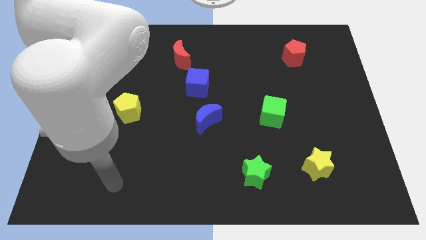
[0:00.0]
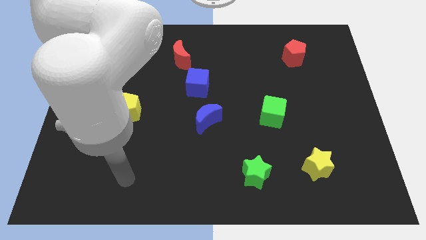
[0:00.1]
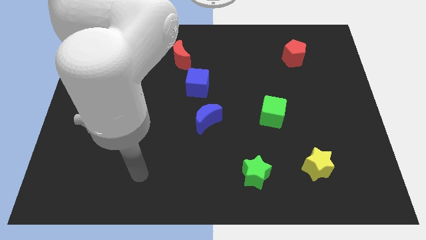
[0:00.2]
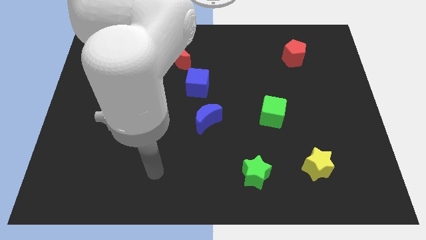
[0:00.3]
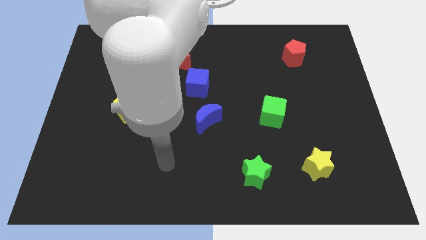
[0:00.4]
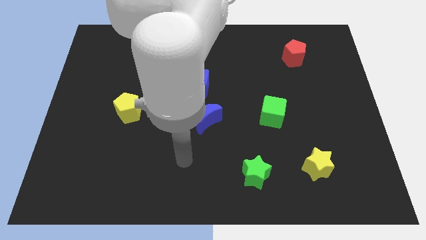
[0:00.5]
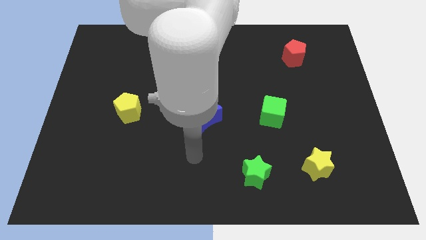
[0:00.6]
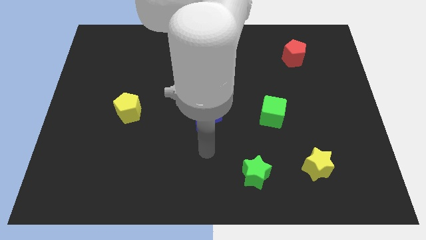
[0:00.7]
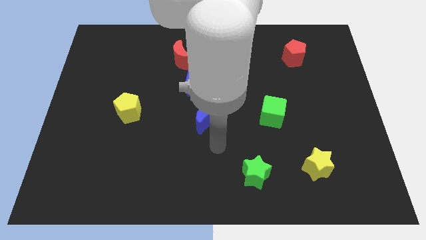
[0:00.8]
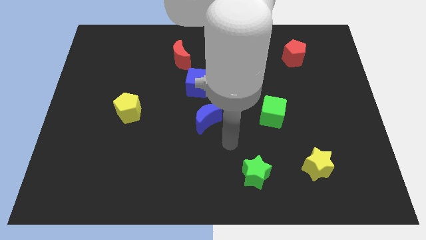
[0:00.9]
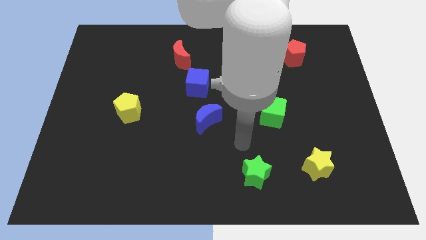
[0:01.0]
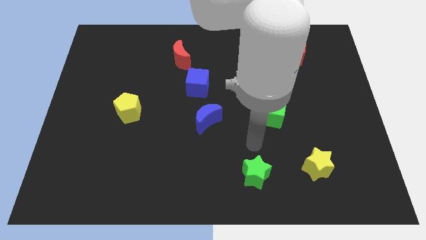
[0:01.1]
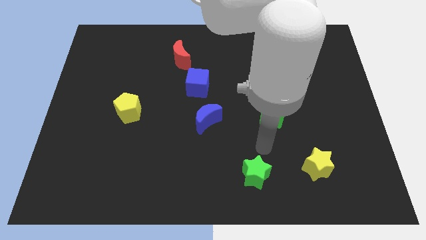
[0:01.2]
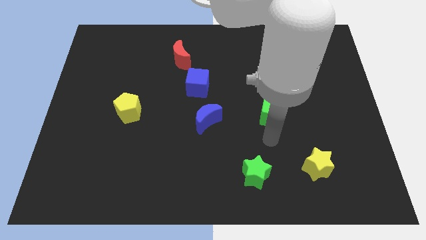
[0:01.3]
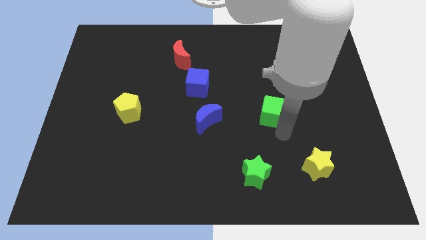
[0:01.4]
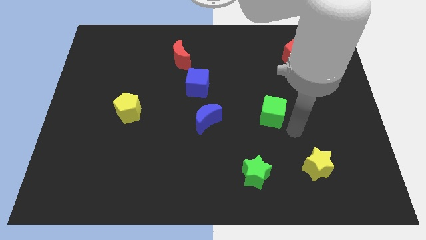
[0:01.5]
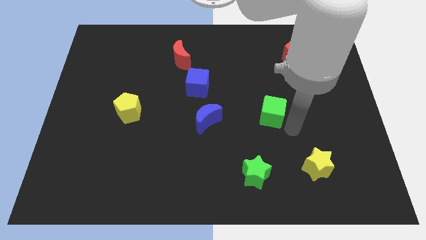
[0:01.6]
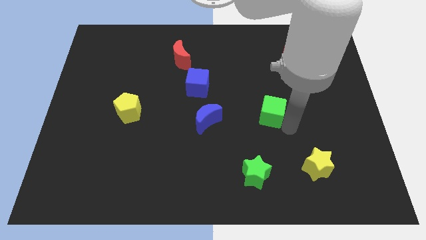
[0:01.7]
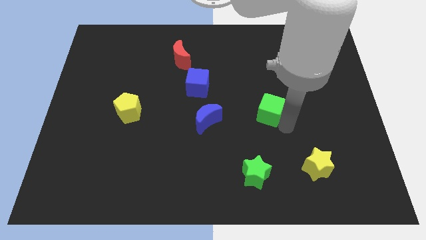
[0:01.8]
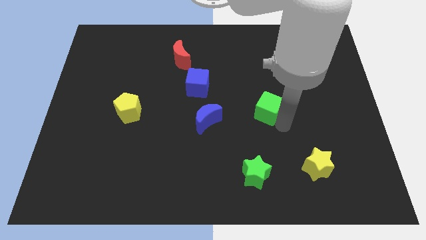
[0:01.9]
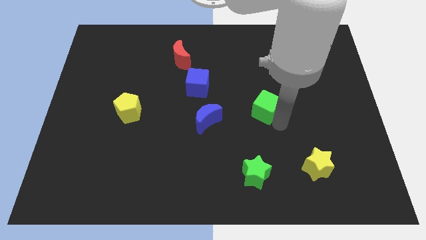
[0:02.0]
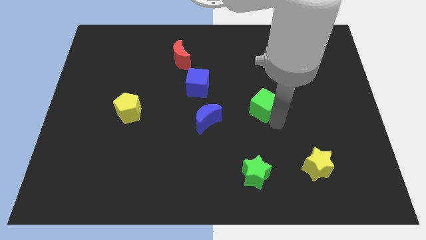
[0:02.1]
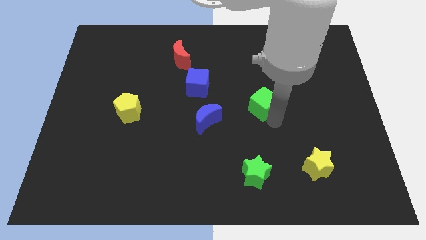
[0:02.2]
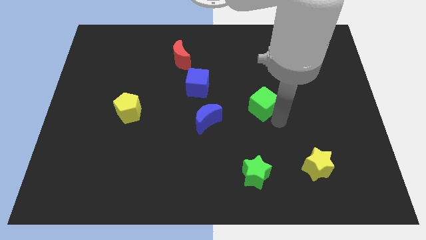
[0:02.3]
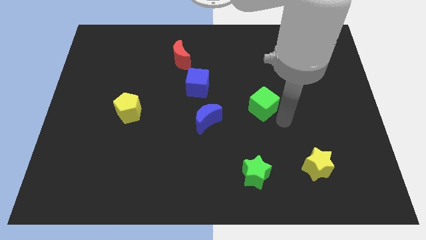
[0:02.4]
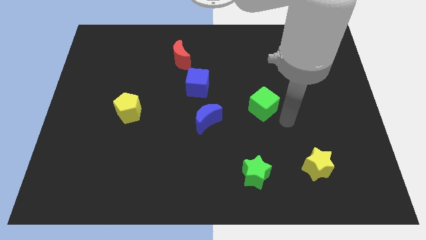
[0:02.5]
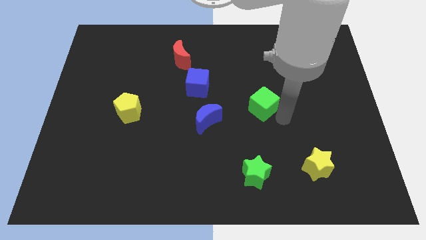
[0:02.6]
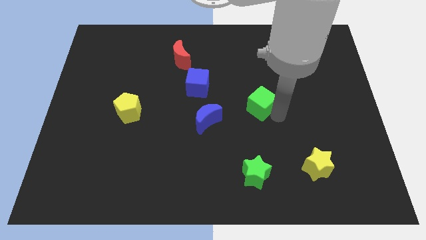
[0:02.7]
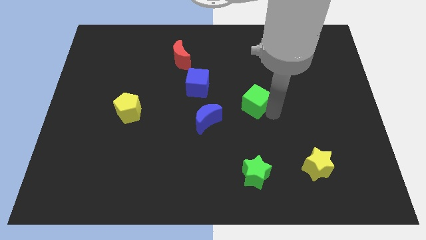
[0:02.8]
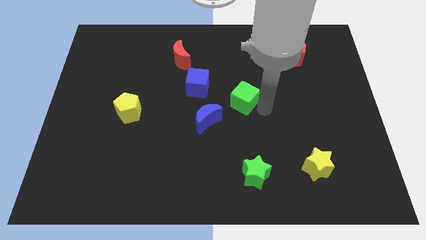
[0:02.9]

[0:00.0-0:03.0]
slide the green cube up and to the left a little

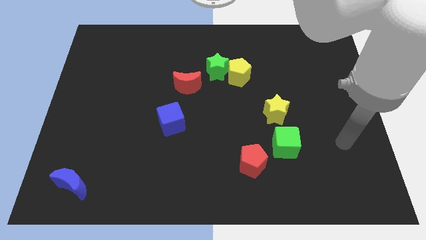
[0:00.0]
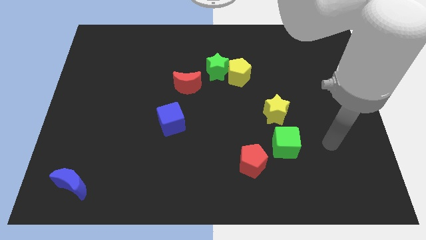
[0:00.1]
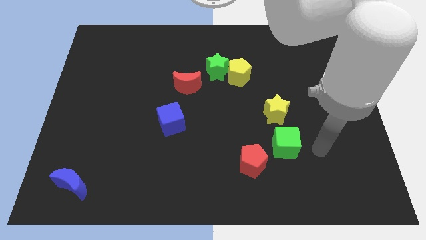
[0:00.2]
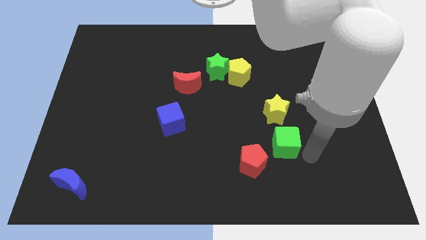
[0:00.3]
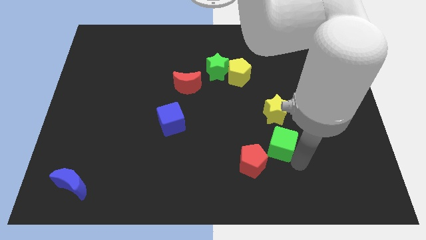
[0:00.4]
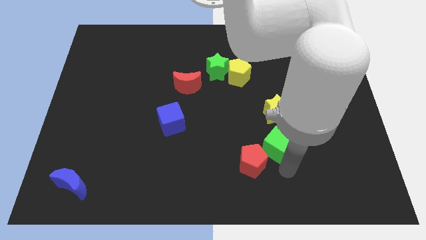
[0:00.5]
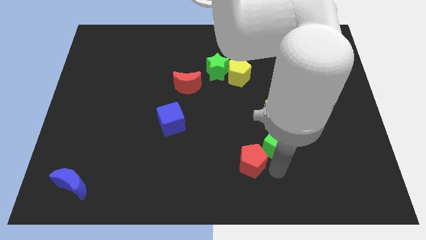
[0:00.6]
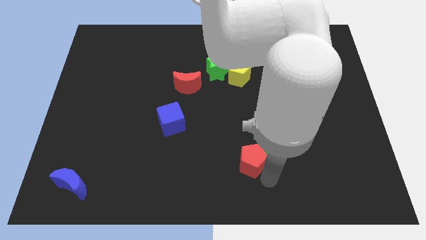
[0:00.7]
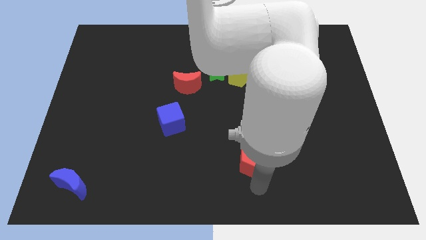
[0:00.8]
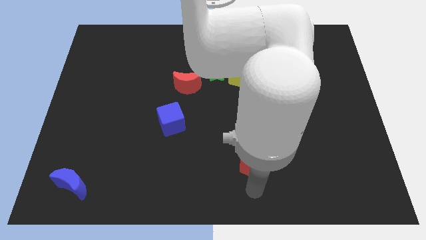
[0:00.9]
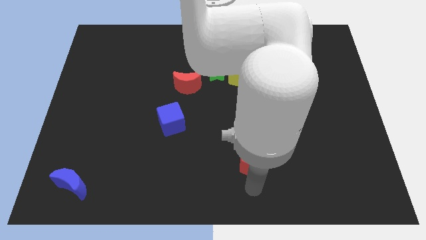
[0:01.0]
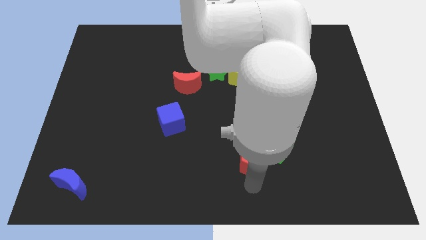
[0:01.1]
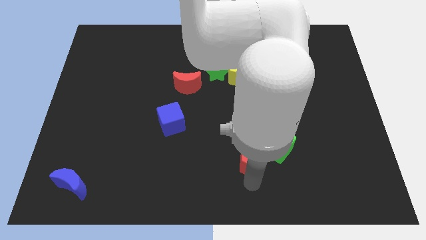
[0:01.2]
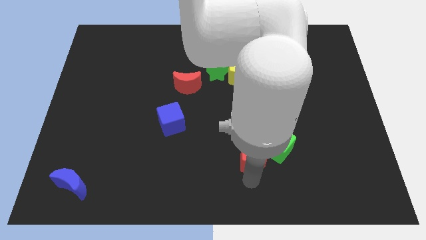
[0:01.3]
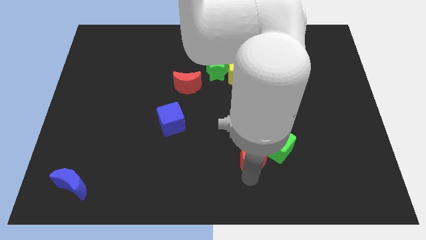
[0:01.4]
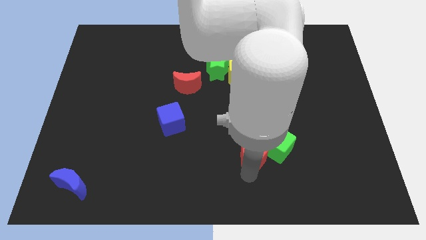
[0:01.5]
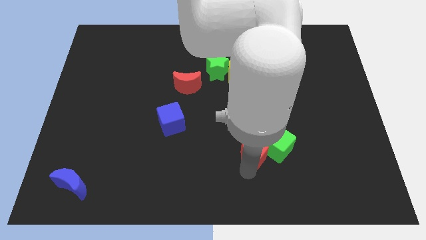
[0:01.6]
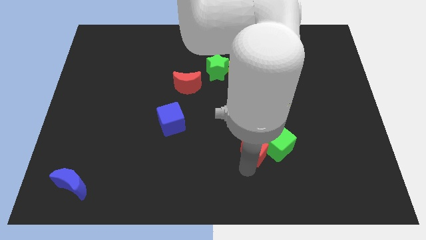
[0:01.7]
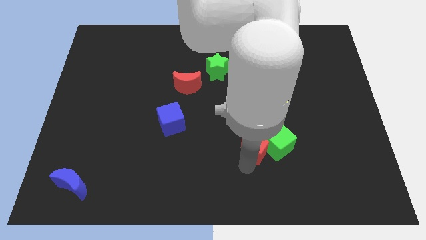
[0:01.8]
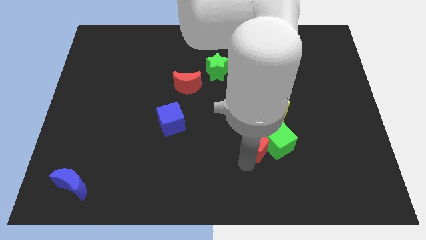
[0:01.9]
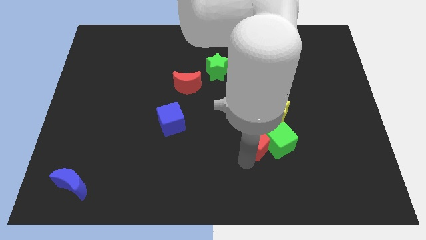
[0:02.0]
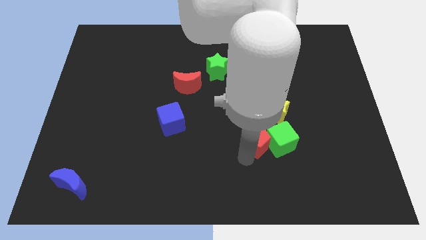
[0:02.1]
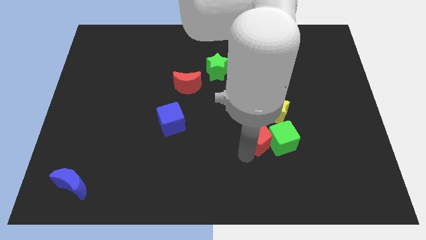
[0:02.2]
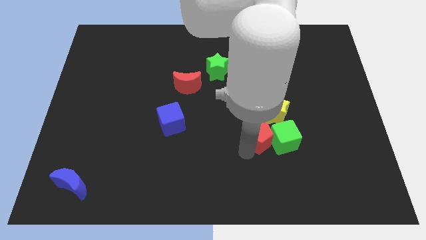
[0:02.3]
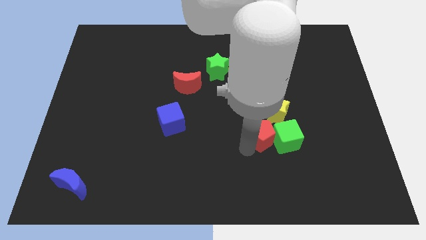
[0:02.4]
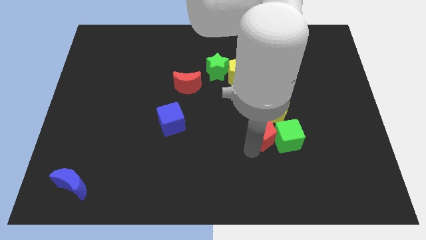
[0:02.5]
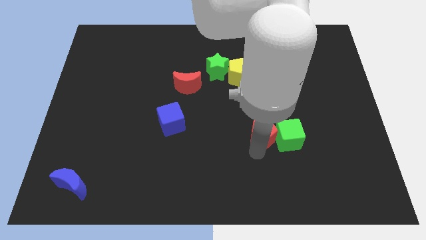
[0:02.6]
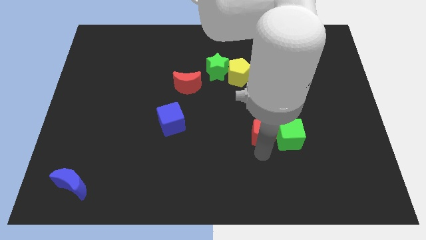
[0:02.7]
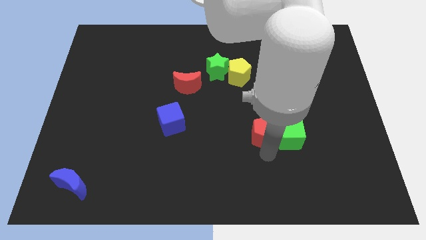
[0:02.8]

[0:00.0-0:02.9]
move the red pentagon slightly upwards

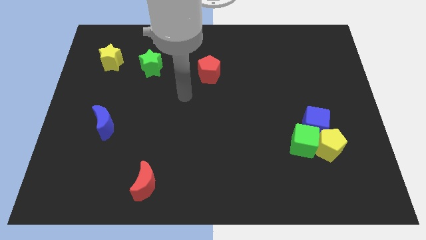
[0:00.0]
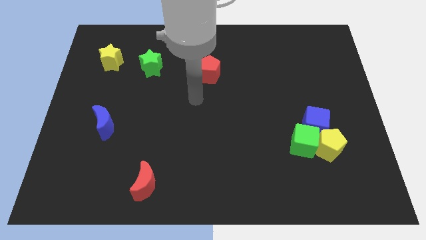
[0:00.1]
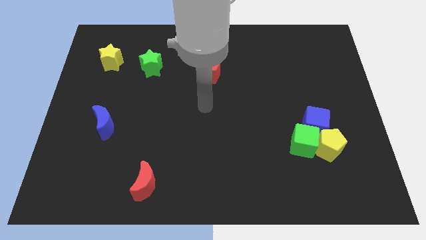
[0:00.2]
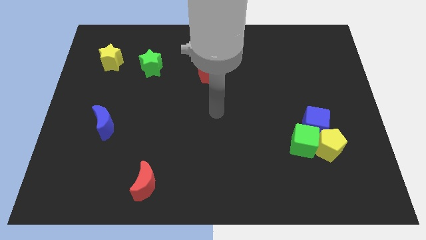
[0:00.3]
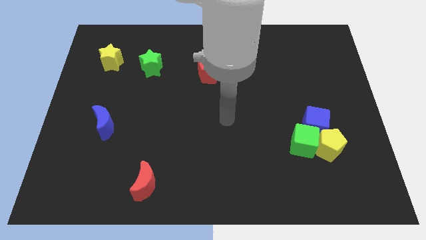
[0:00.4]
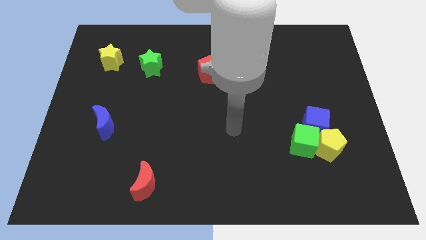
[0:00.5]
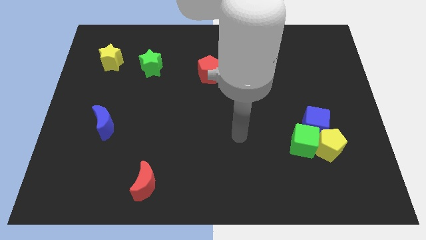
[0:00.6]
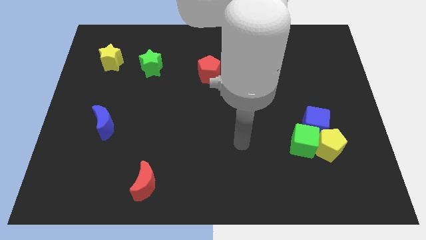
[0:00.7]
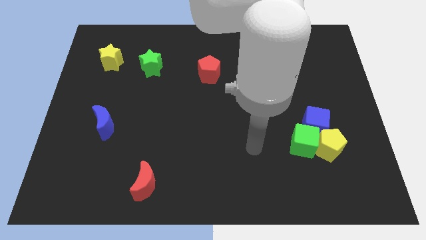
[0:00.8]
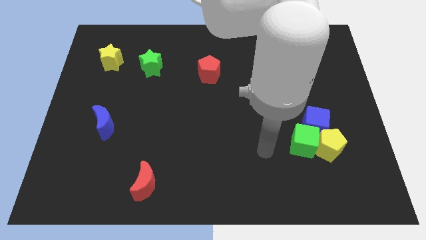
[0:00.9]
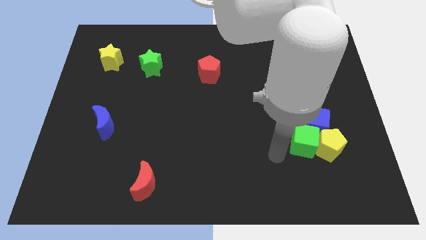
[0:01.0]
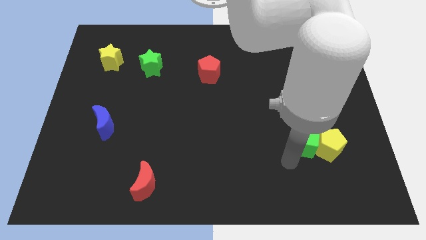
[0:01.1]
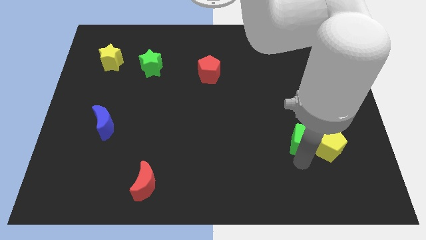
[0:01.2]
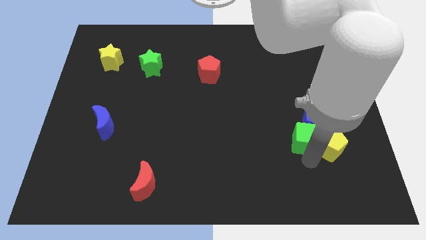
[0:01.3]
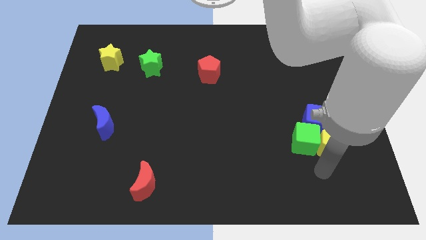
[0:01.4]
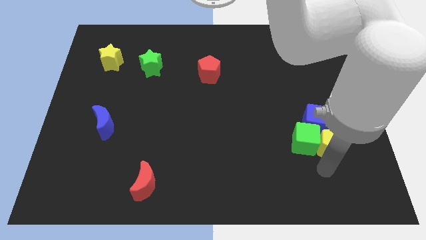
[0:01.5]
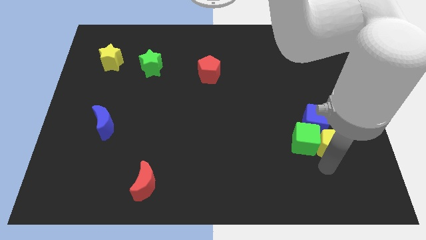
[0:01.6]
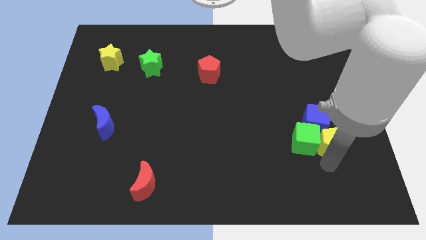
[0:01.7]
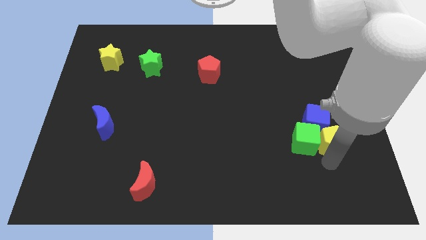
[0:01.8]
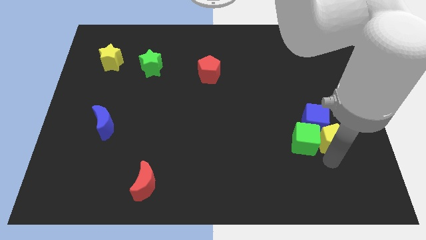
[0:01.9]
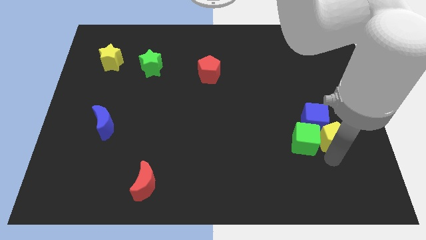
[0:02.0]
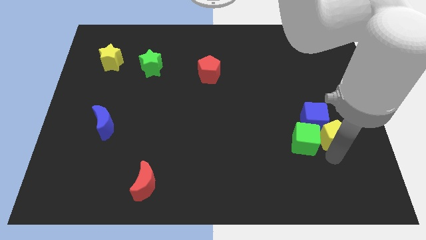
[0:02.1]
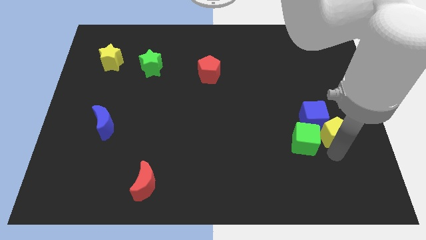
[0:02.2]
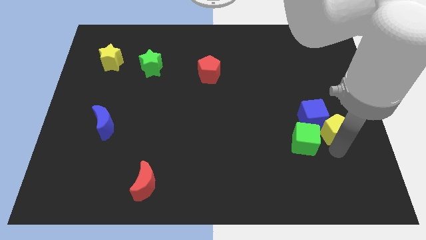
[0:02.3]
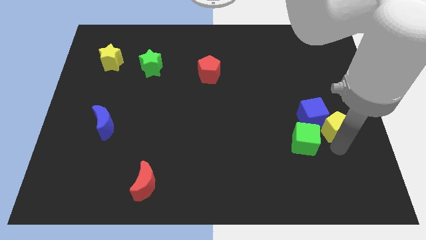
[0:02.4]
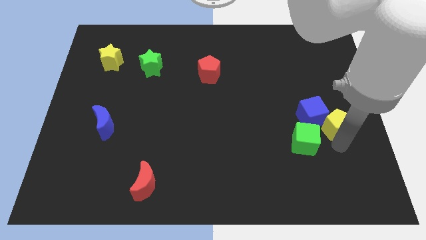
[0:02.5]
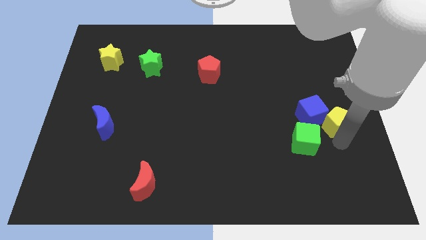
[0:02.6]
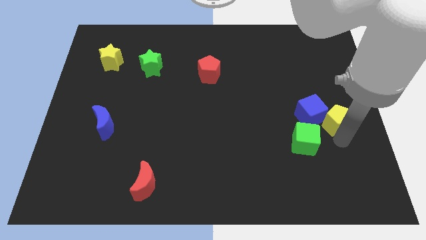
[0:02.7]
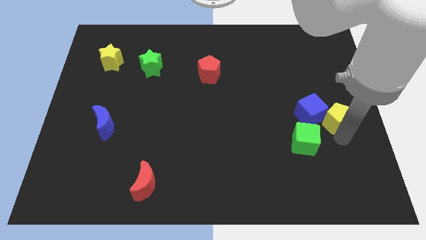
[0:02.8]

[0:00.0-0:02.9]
slide the yellow pentagon upwards a bit
